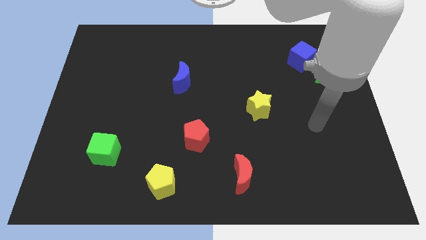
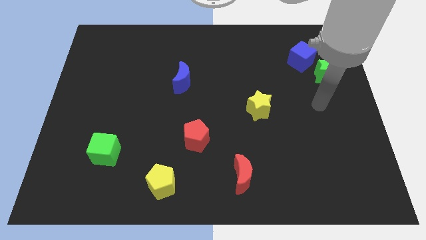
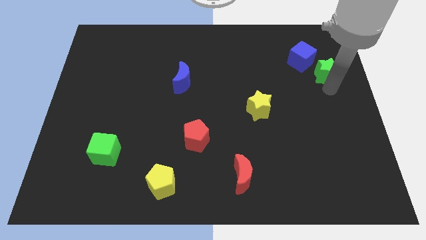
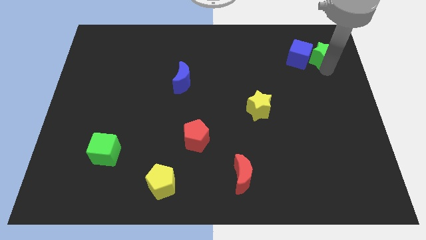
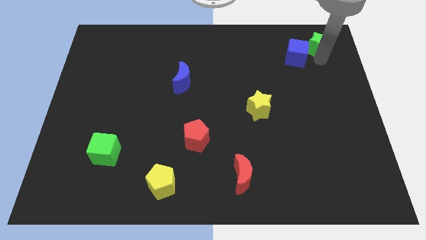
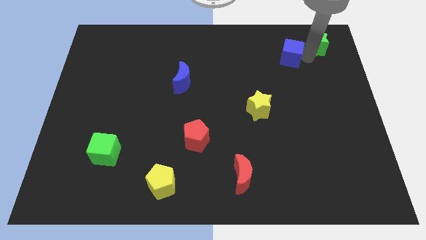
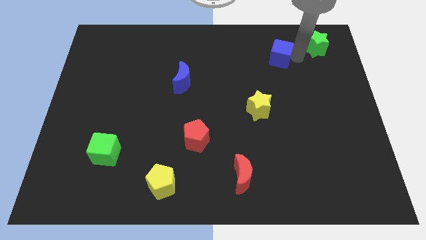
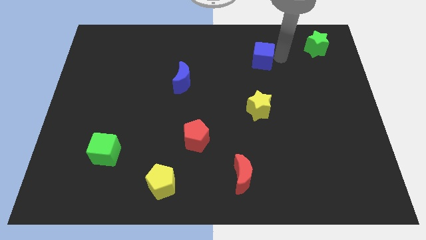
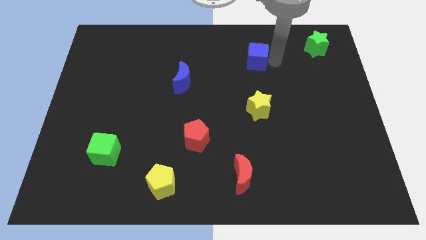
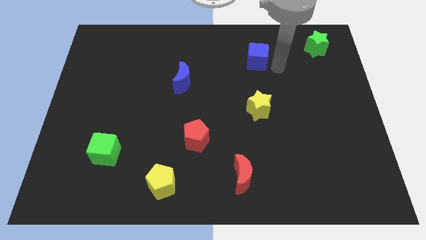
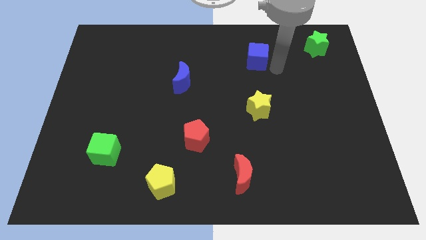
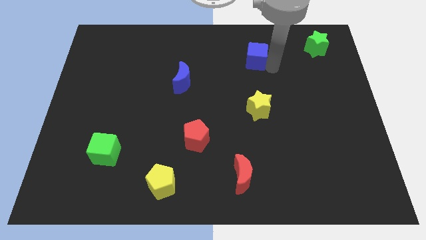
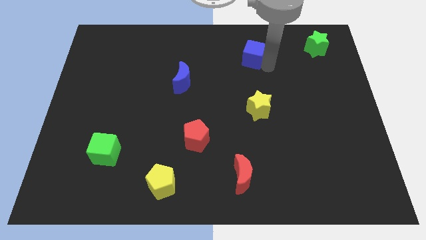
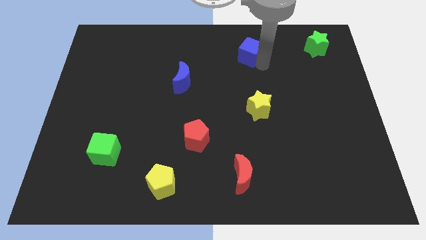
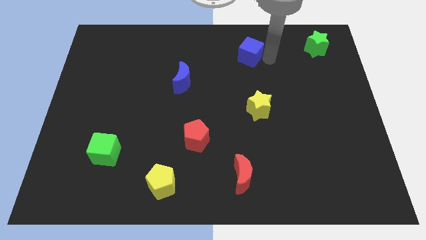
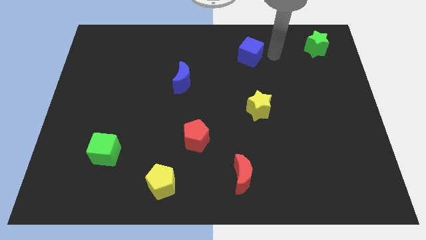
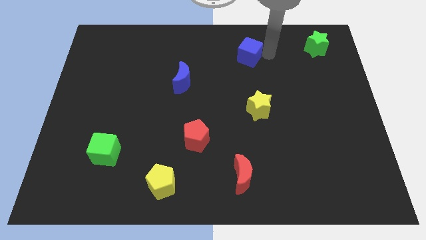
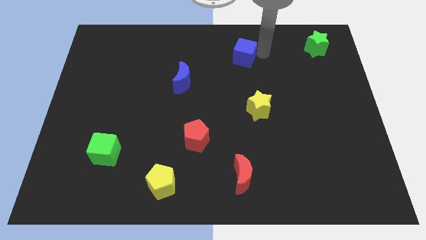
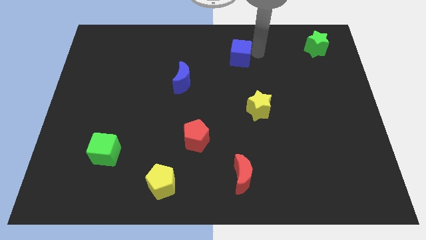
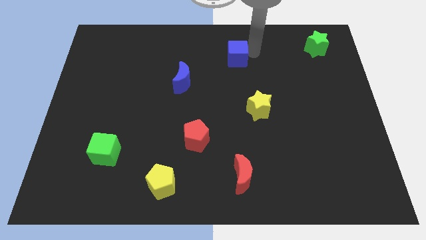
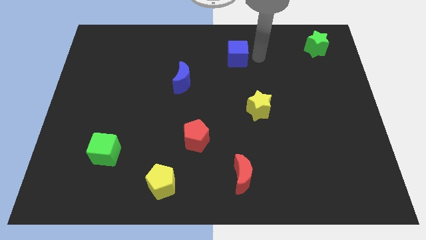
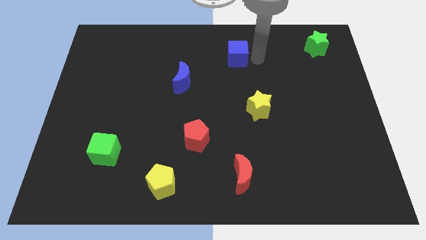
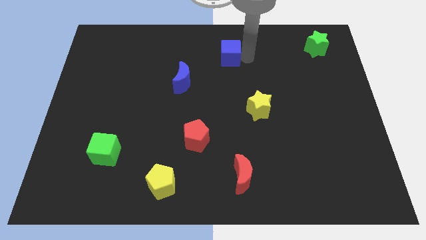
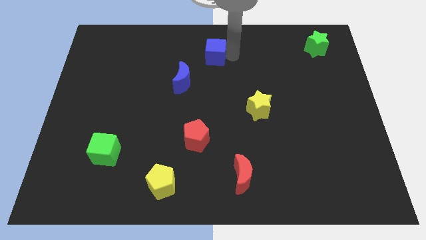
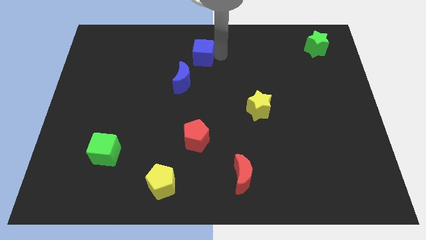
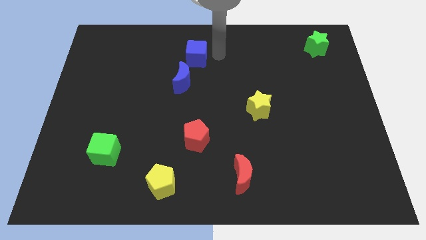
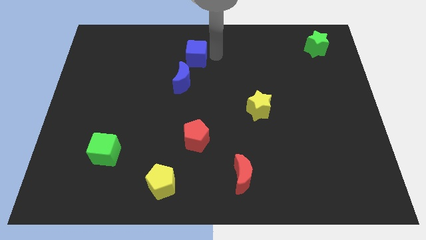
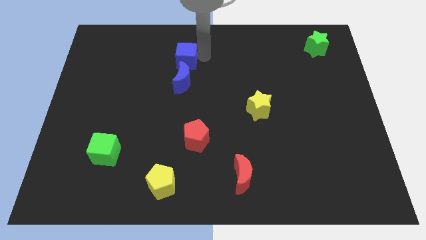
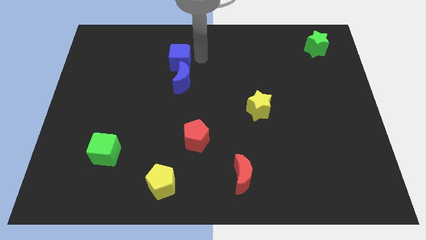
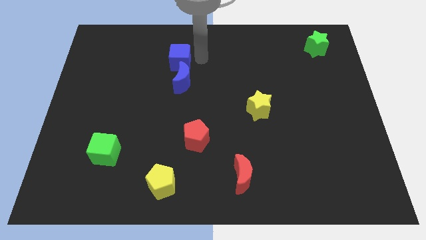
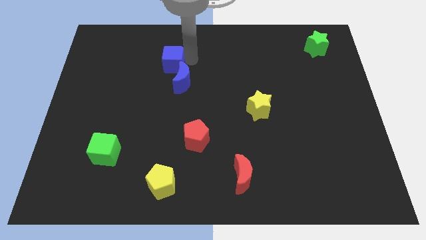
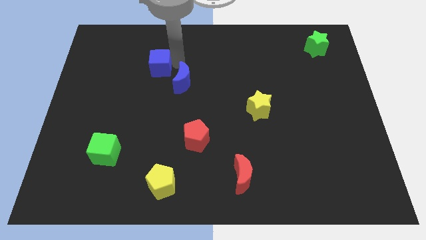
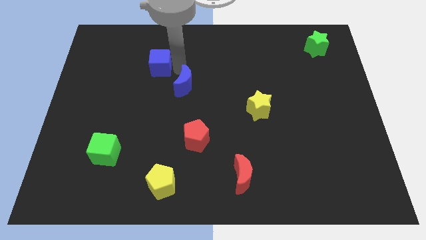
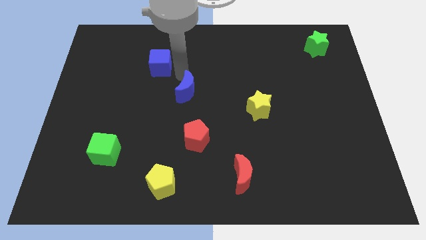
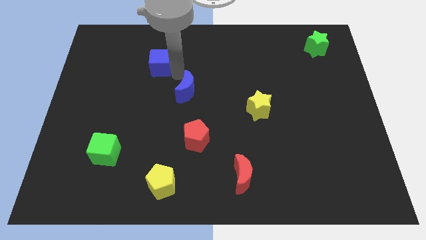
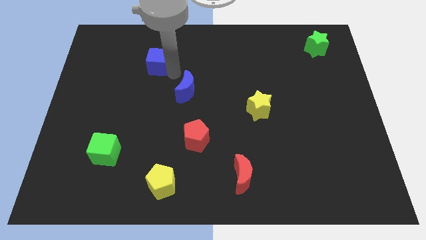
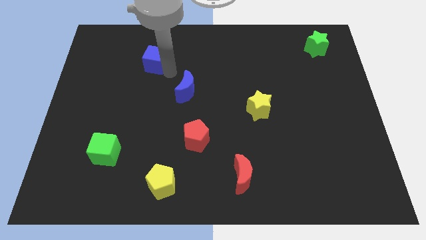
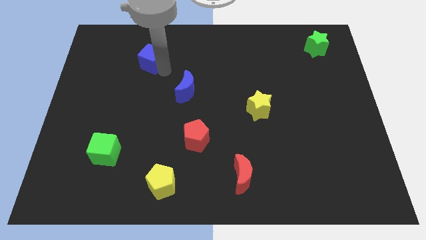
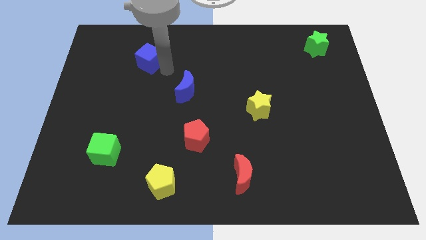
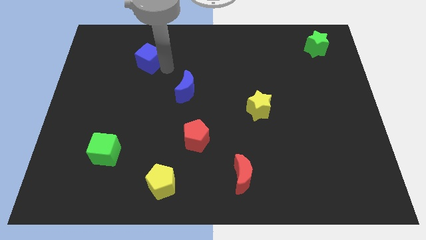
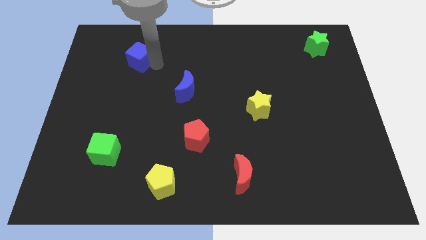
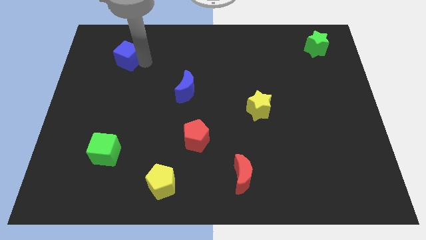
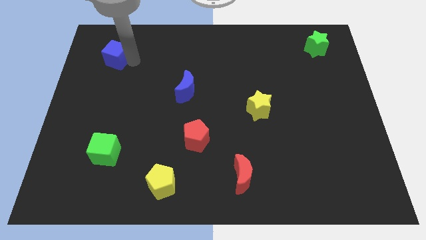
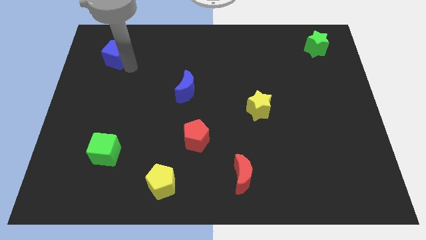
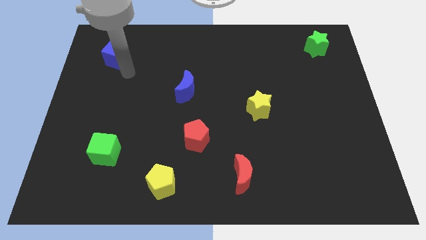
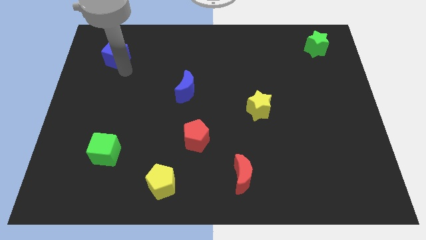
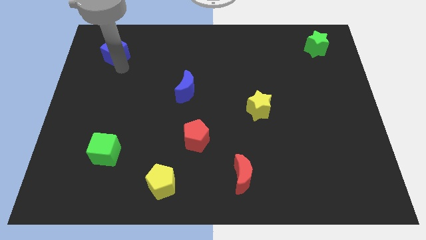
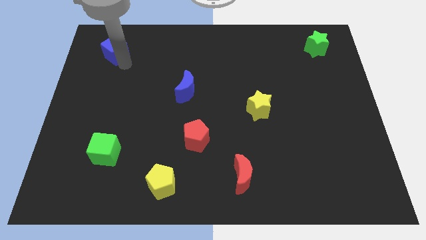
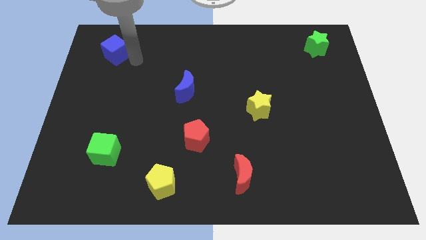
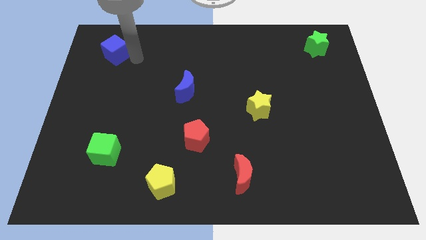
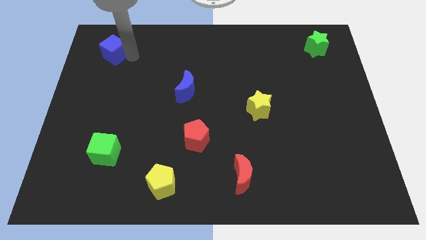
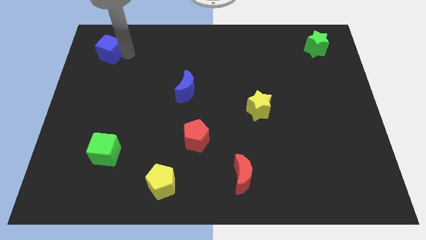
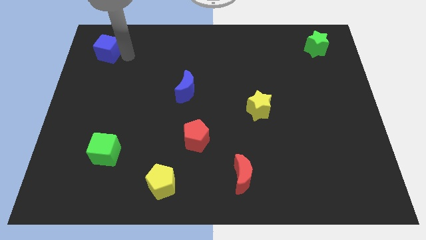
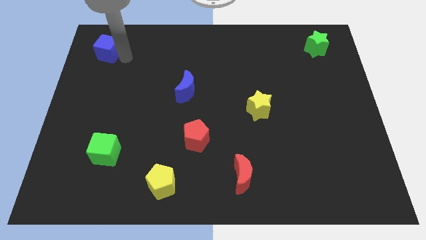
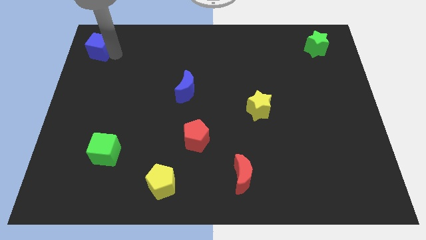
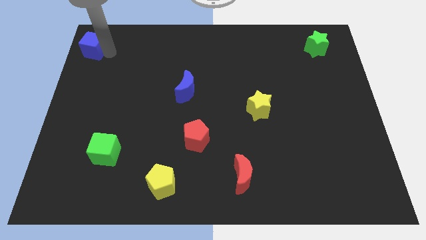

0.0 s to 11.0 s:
put the blue cube to the top left of the board
